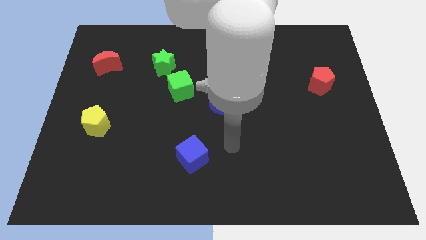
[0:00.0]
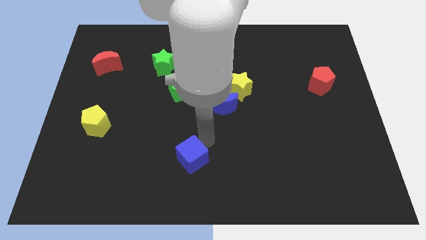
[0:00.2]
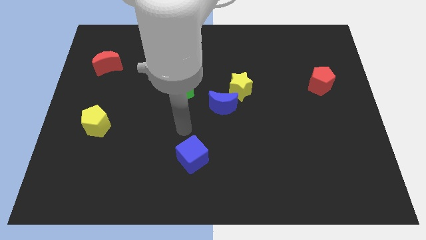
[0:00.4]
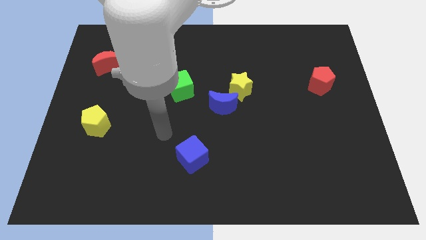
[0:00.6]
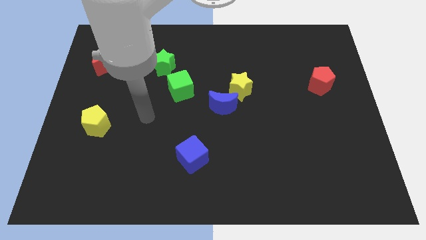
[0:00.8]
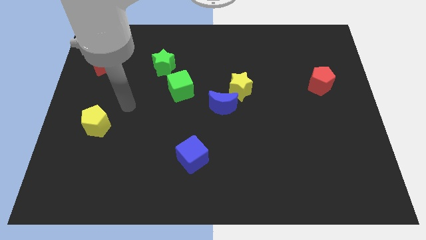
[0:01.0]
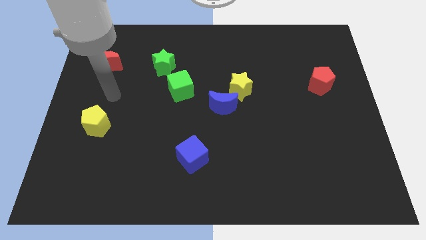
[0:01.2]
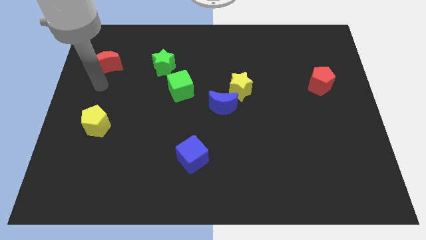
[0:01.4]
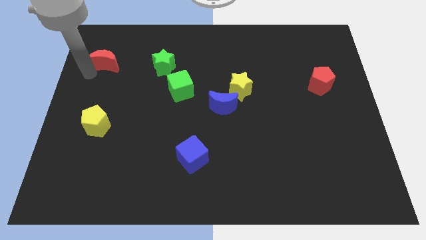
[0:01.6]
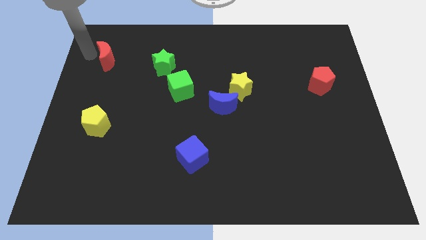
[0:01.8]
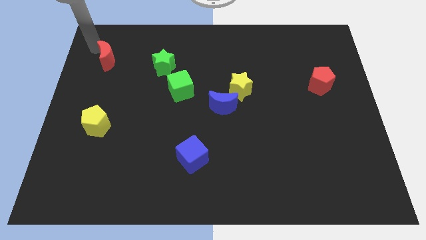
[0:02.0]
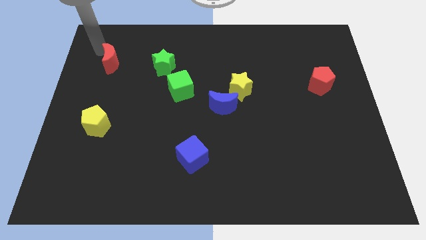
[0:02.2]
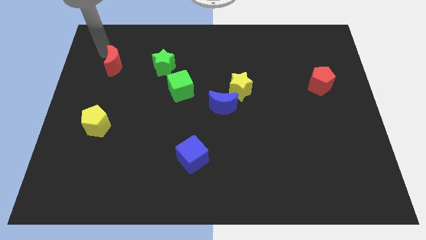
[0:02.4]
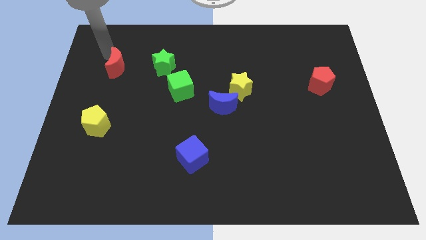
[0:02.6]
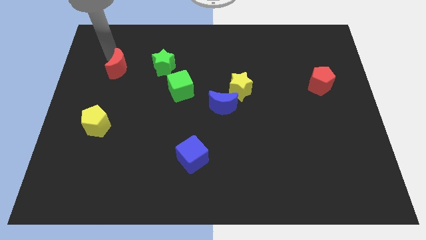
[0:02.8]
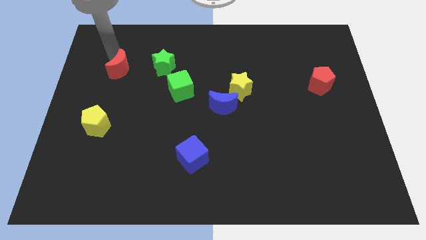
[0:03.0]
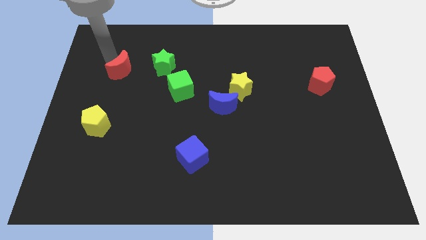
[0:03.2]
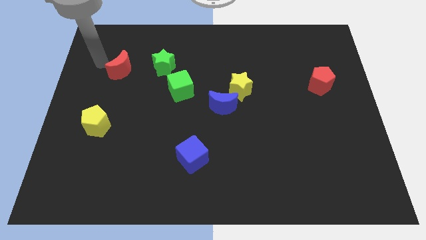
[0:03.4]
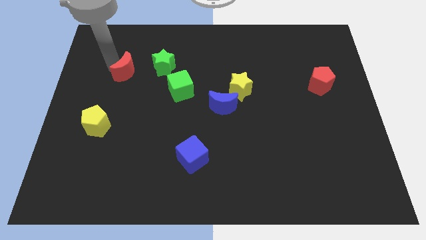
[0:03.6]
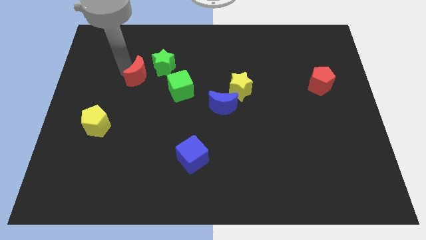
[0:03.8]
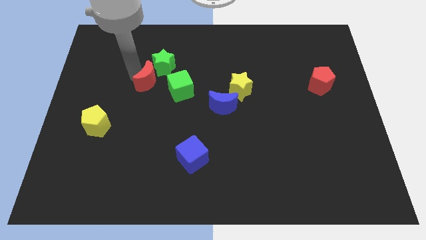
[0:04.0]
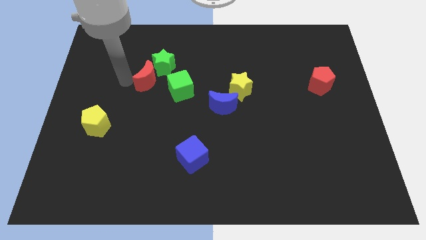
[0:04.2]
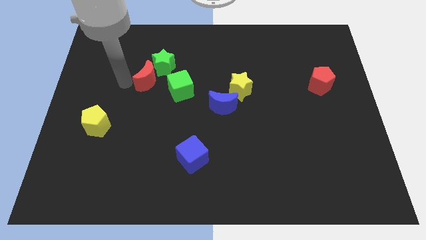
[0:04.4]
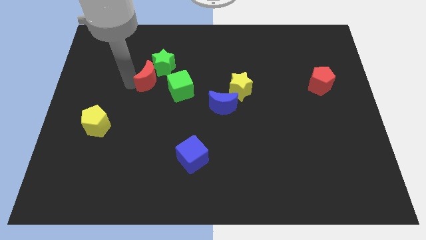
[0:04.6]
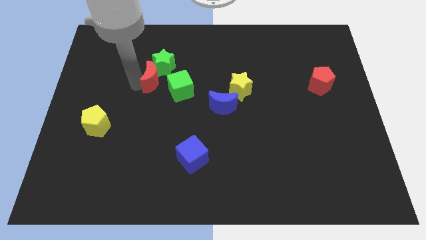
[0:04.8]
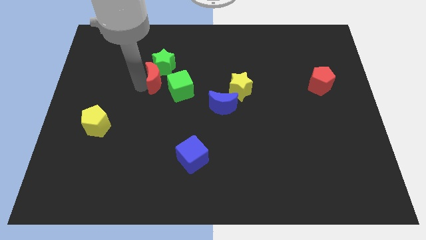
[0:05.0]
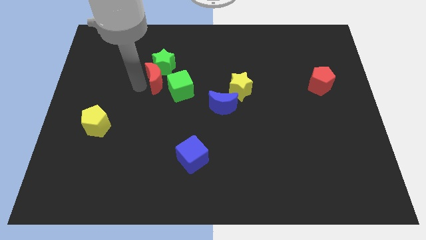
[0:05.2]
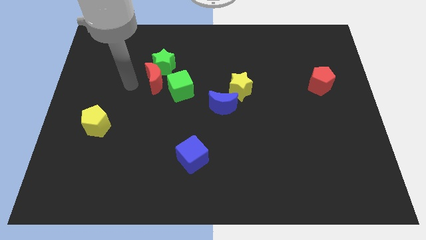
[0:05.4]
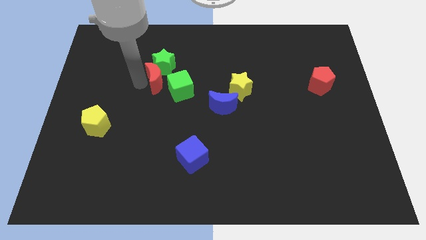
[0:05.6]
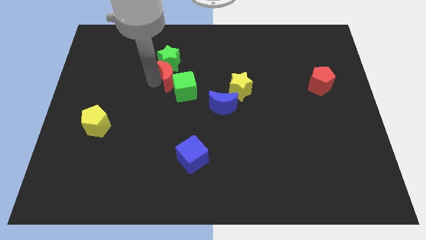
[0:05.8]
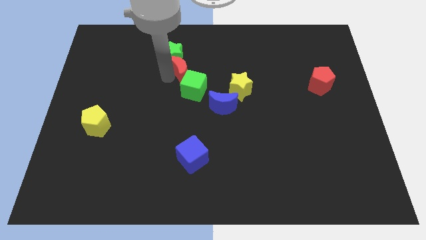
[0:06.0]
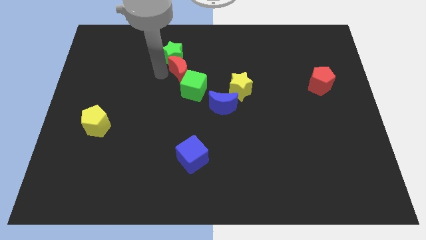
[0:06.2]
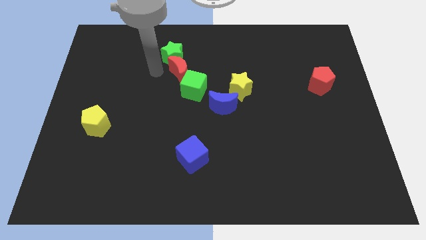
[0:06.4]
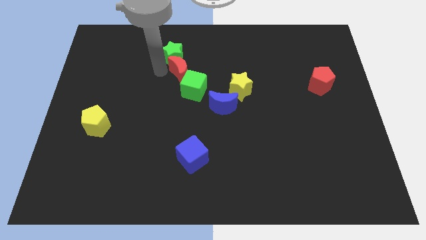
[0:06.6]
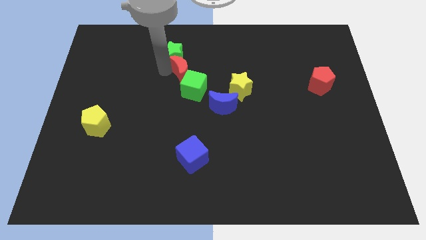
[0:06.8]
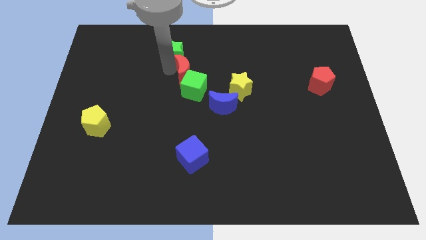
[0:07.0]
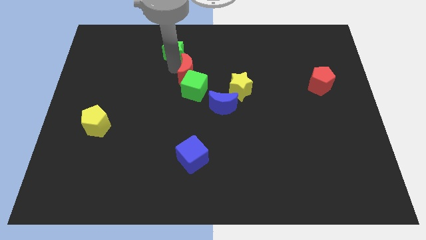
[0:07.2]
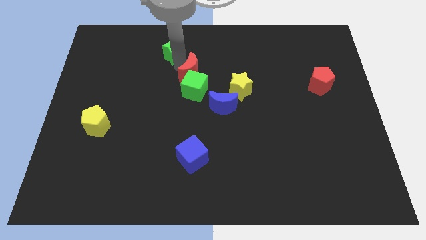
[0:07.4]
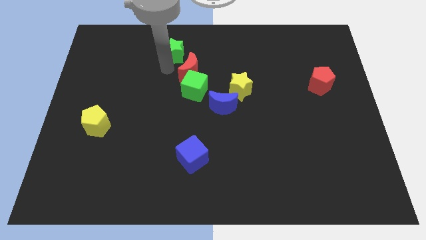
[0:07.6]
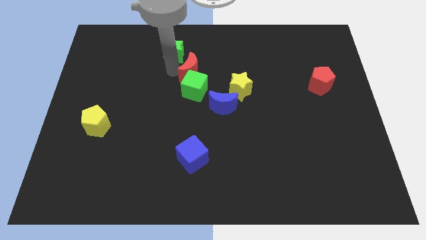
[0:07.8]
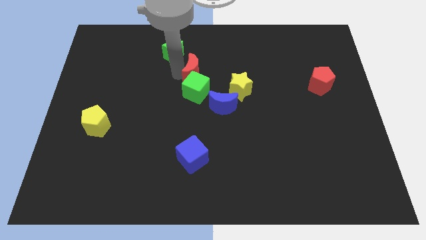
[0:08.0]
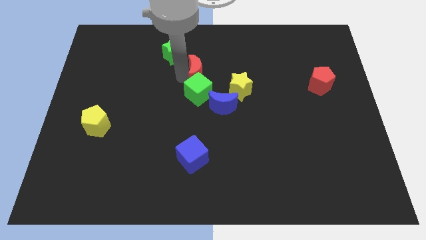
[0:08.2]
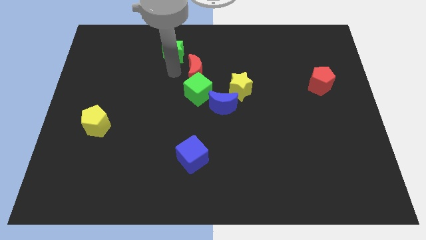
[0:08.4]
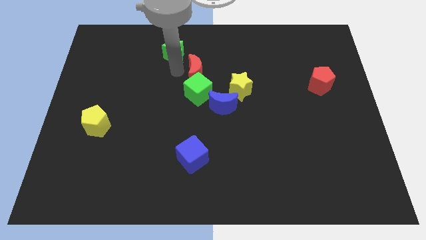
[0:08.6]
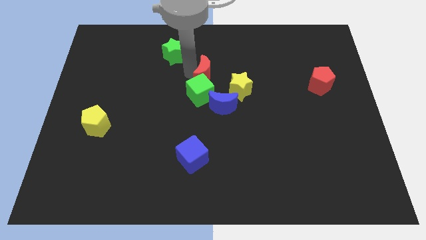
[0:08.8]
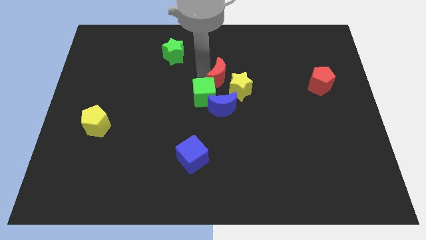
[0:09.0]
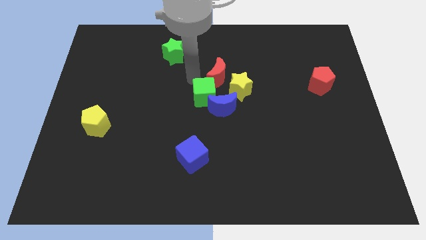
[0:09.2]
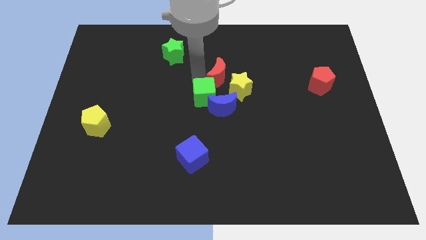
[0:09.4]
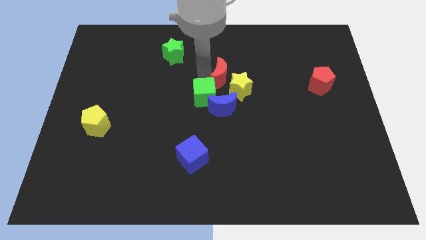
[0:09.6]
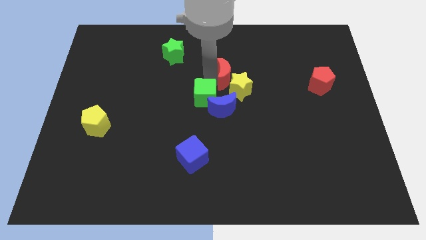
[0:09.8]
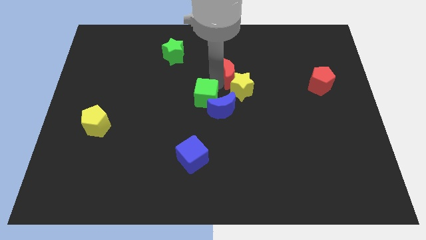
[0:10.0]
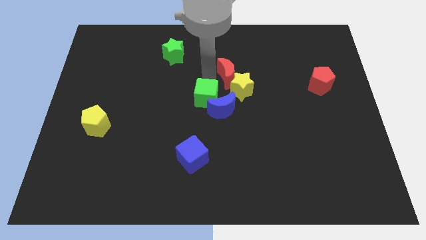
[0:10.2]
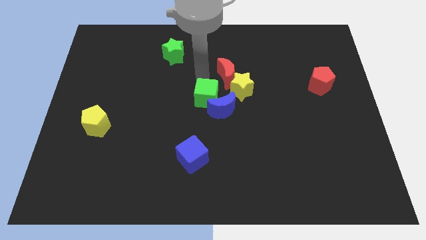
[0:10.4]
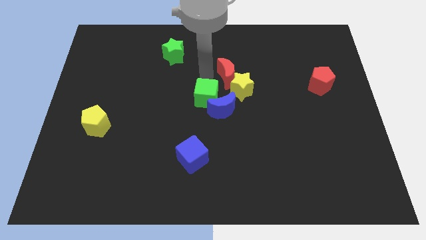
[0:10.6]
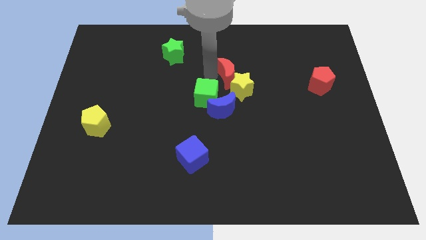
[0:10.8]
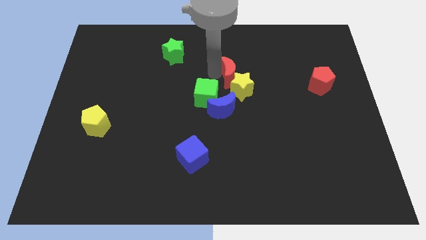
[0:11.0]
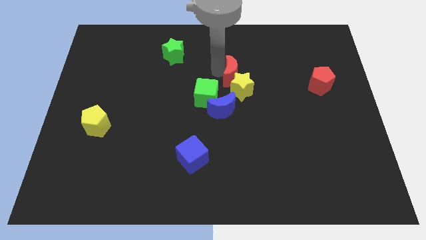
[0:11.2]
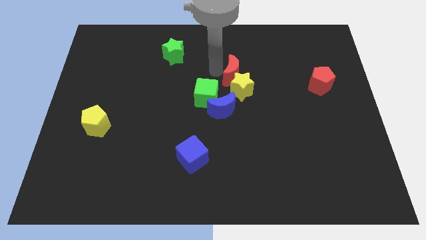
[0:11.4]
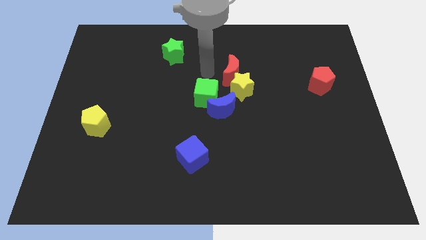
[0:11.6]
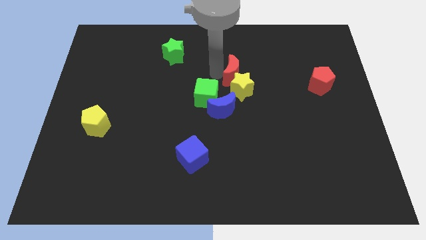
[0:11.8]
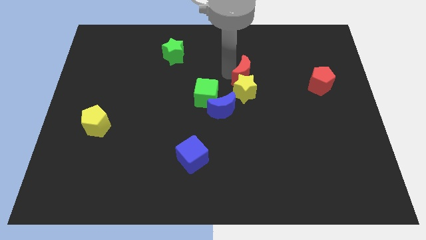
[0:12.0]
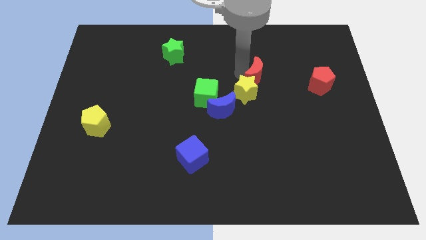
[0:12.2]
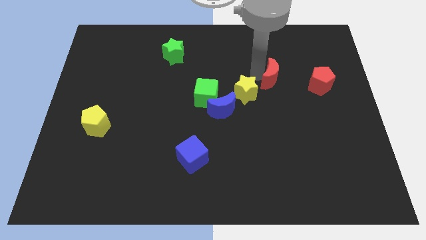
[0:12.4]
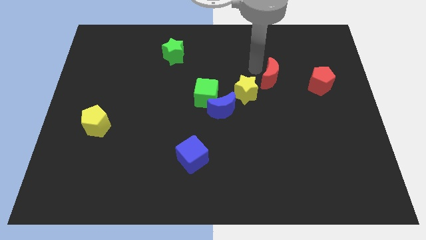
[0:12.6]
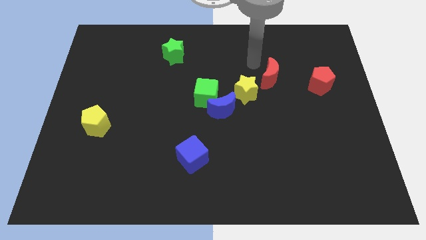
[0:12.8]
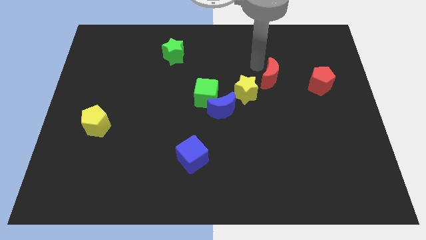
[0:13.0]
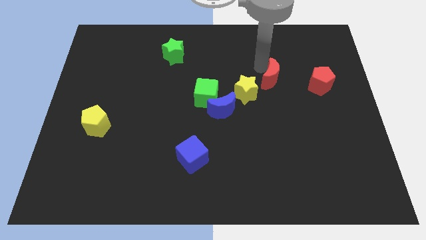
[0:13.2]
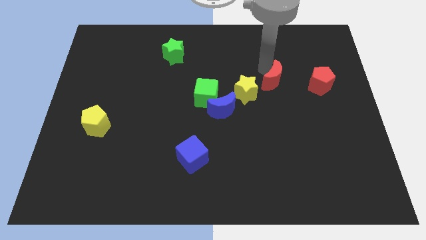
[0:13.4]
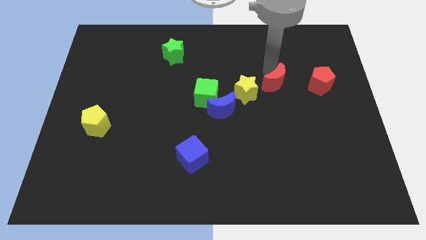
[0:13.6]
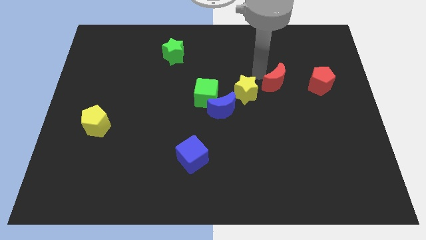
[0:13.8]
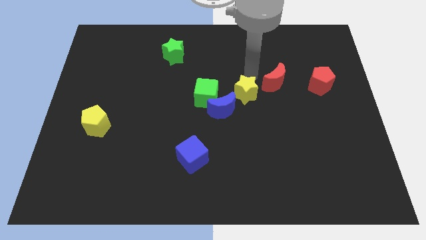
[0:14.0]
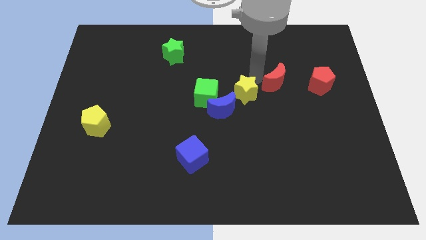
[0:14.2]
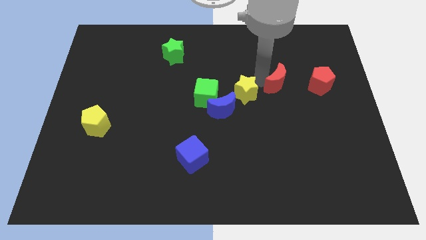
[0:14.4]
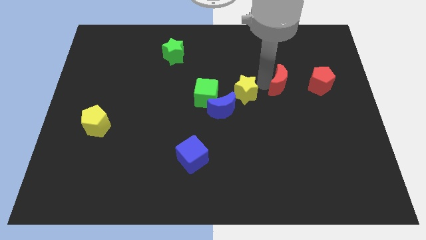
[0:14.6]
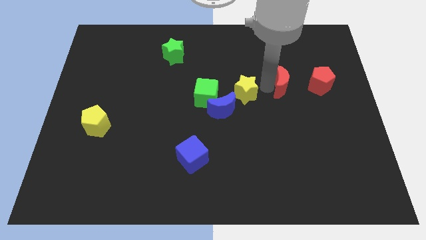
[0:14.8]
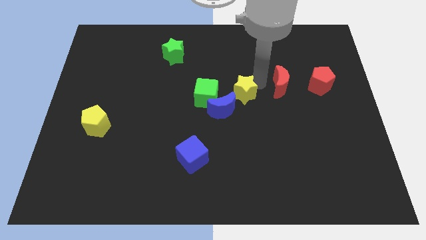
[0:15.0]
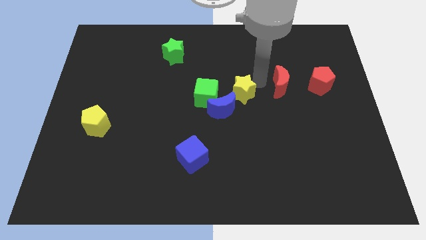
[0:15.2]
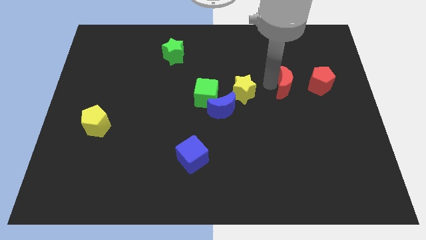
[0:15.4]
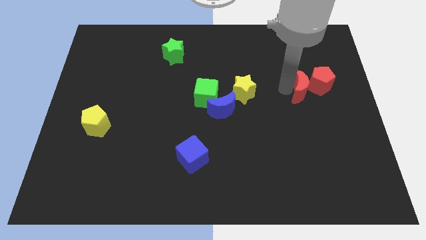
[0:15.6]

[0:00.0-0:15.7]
push the red moon next to the red pentagon
